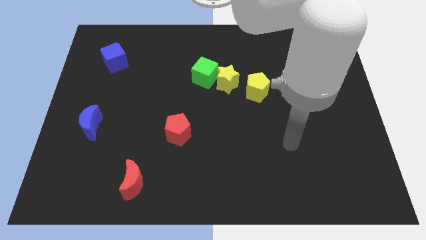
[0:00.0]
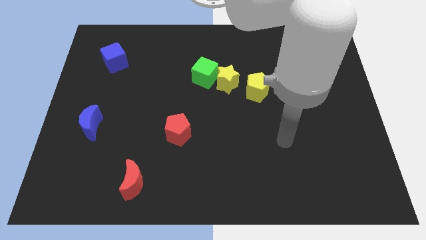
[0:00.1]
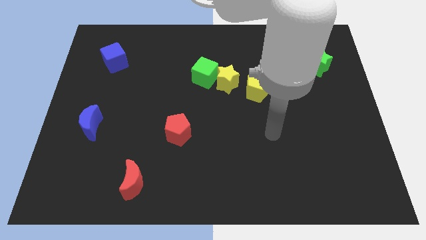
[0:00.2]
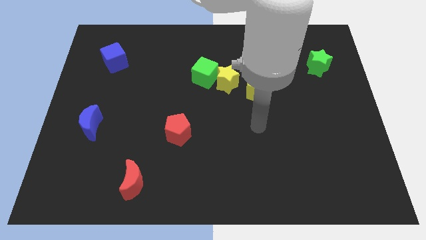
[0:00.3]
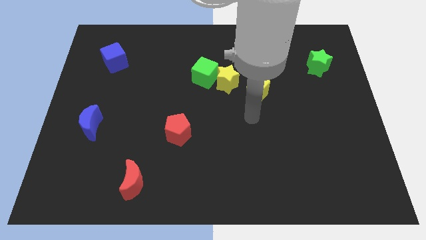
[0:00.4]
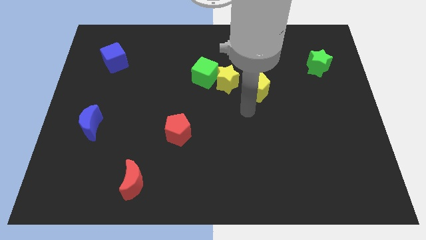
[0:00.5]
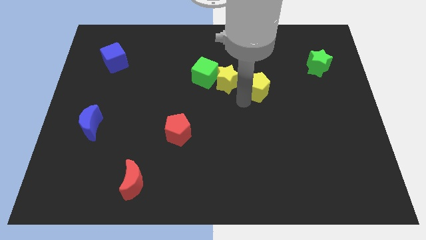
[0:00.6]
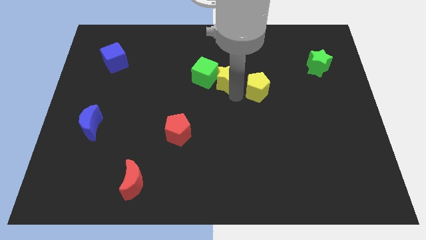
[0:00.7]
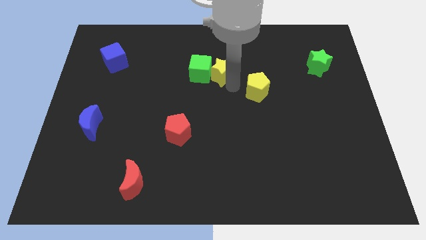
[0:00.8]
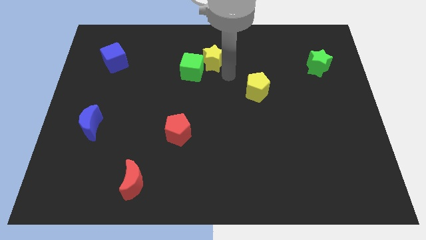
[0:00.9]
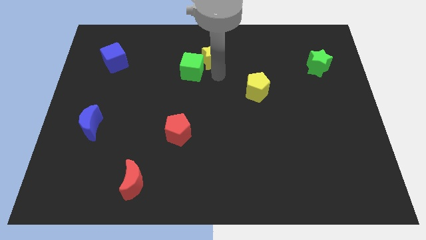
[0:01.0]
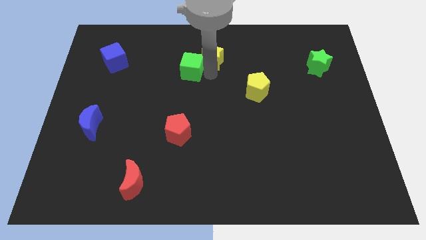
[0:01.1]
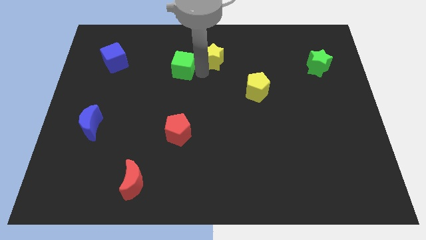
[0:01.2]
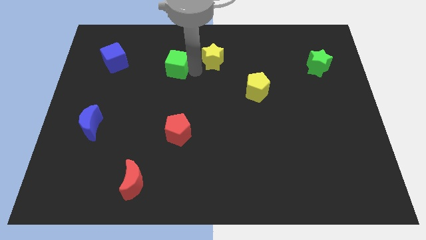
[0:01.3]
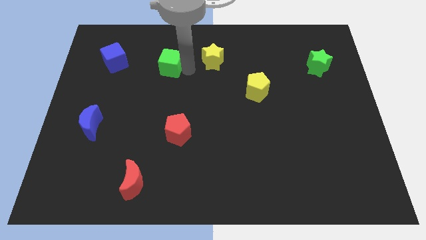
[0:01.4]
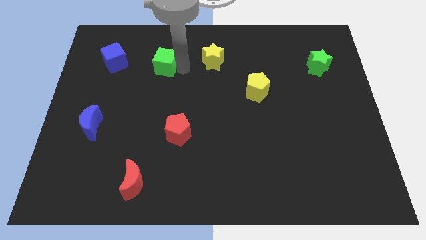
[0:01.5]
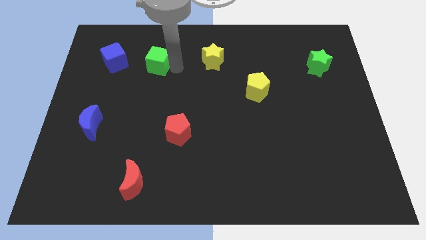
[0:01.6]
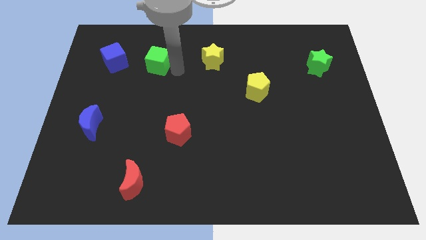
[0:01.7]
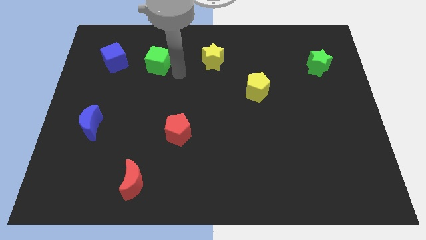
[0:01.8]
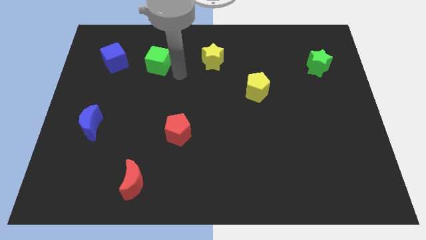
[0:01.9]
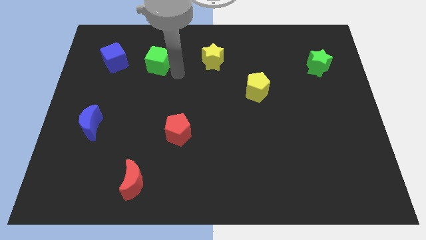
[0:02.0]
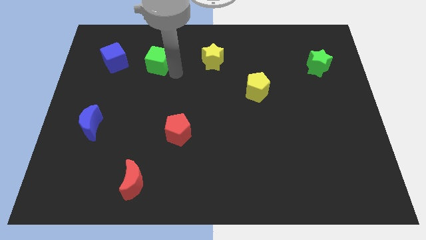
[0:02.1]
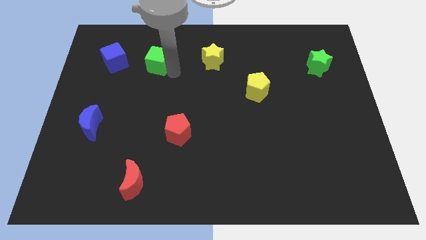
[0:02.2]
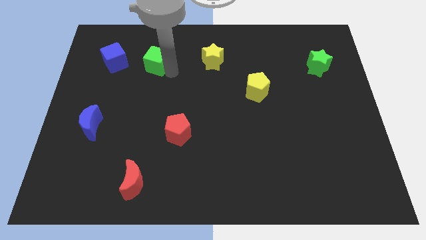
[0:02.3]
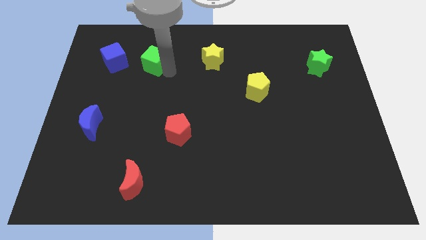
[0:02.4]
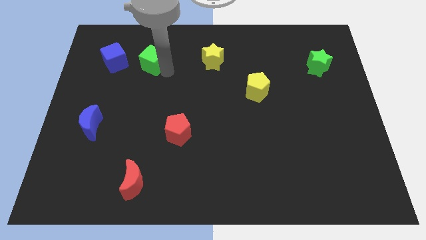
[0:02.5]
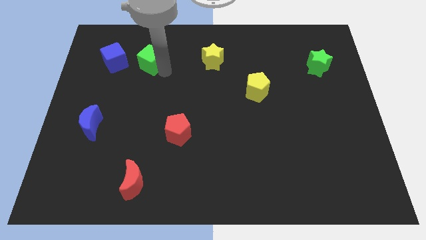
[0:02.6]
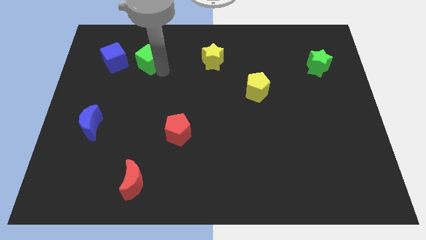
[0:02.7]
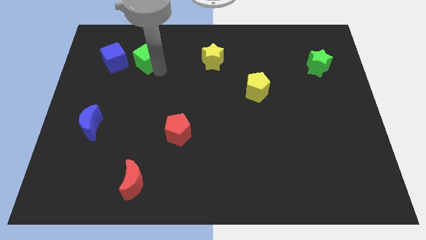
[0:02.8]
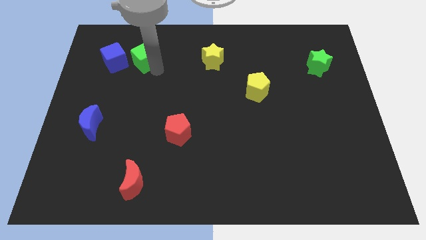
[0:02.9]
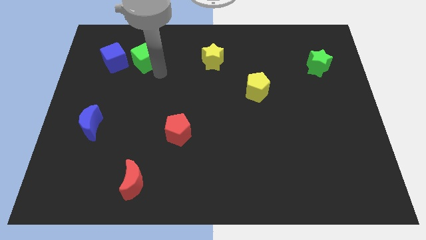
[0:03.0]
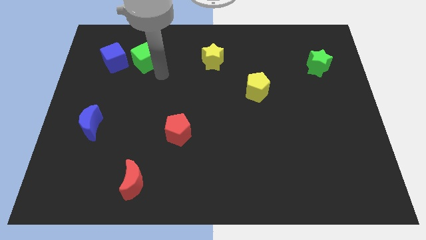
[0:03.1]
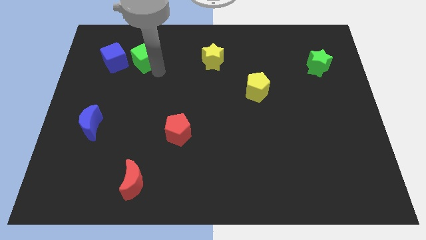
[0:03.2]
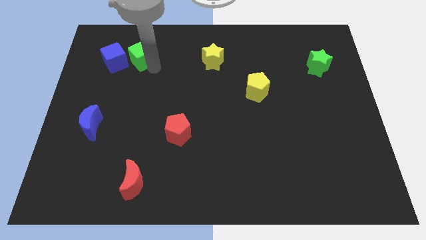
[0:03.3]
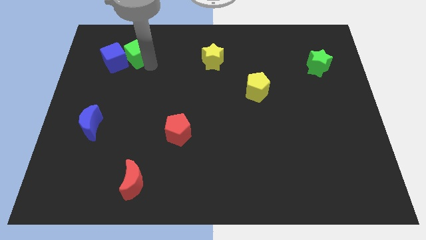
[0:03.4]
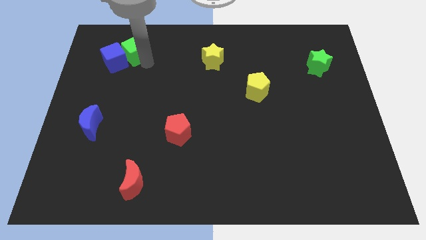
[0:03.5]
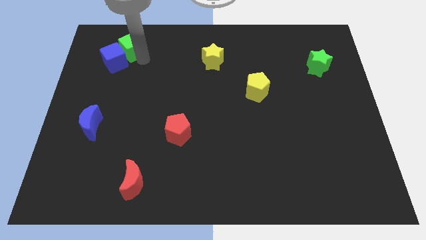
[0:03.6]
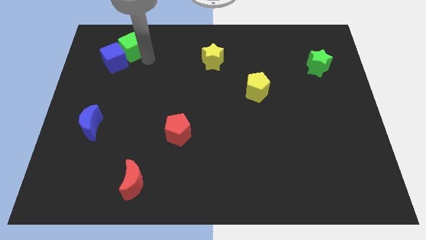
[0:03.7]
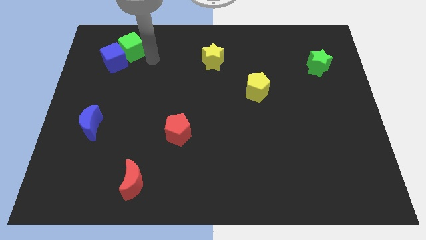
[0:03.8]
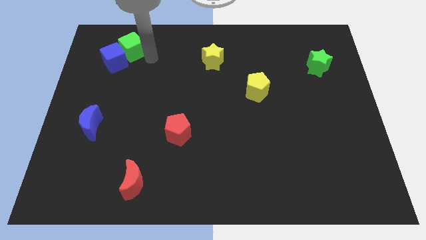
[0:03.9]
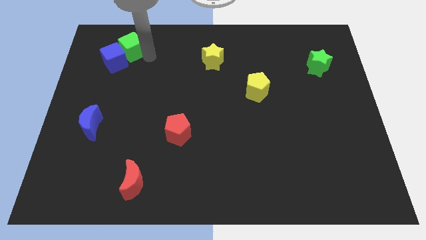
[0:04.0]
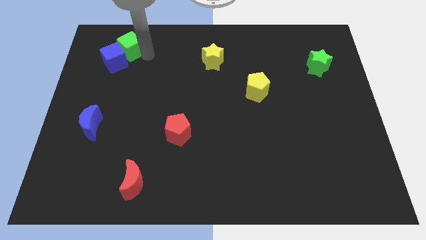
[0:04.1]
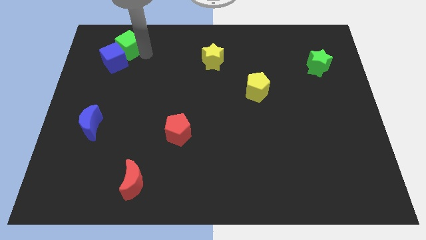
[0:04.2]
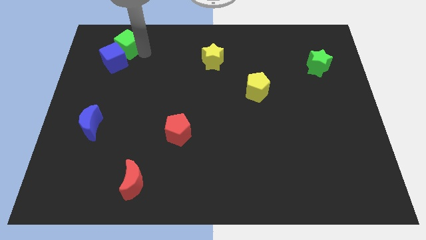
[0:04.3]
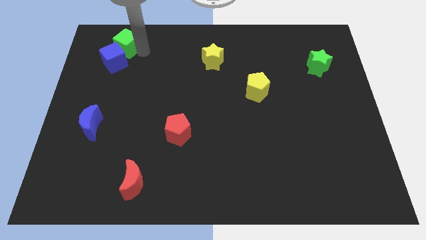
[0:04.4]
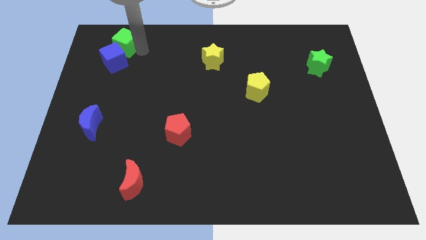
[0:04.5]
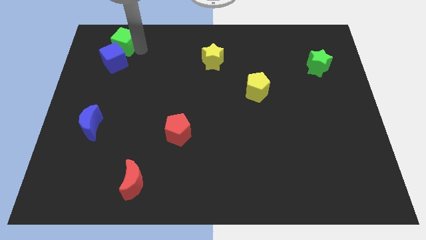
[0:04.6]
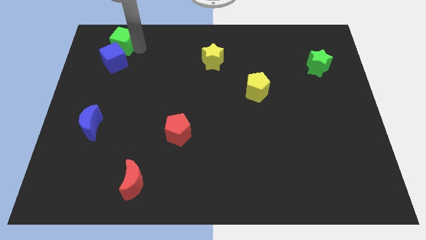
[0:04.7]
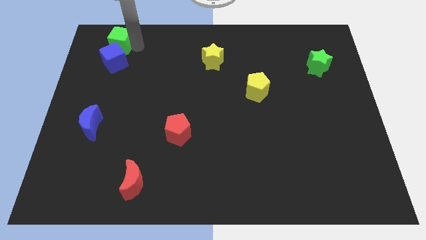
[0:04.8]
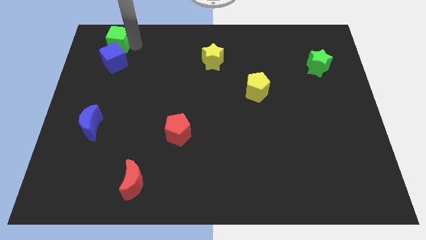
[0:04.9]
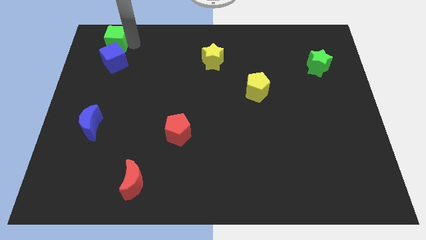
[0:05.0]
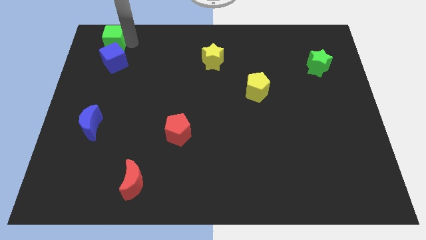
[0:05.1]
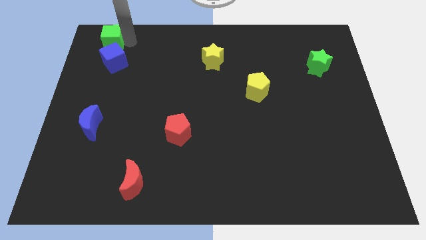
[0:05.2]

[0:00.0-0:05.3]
put the green cube to the upper left corner

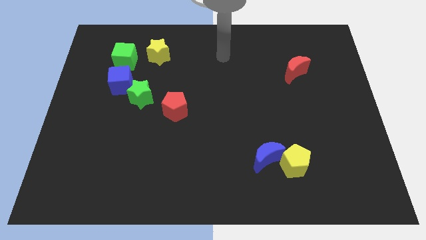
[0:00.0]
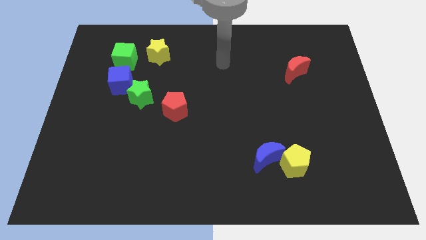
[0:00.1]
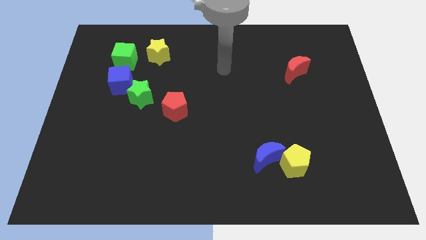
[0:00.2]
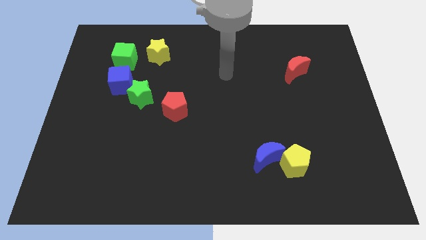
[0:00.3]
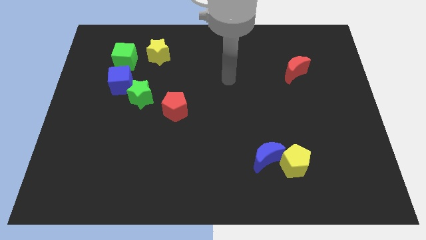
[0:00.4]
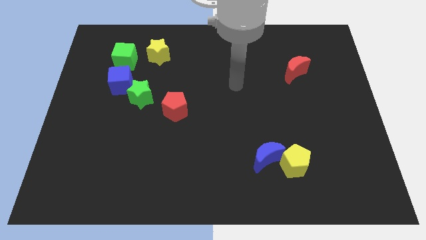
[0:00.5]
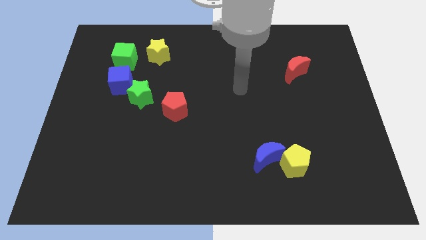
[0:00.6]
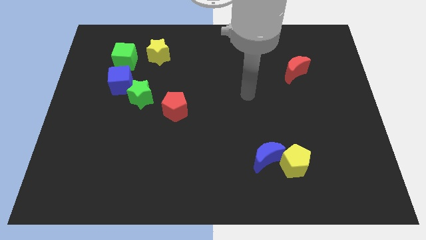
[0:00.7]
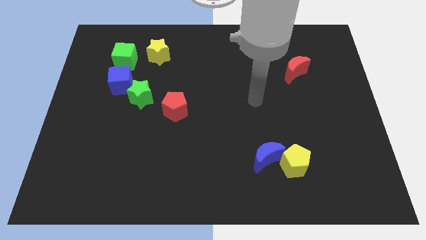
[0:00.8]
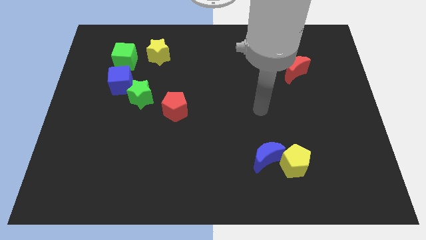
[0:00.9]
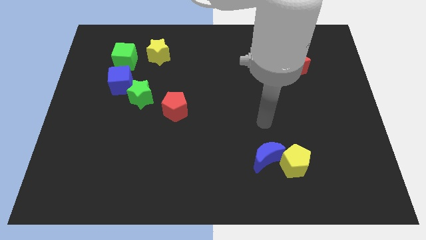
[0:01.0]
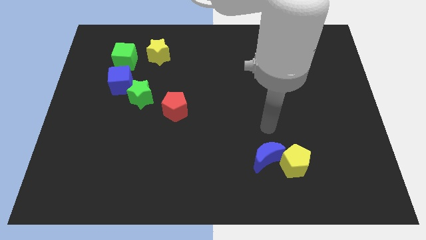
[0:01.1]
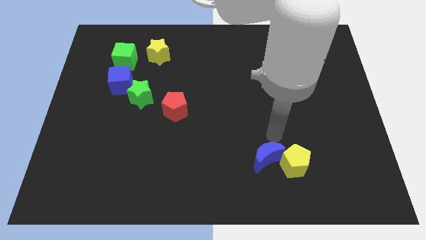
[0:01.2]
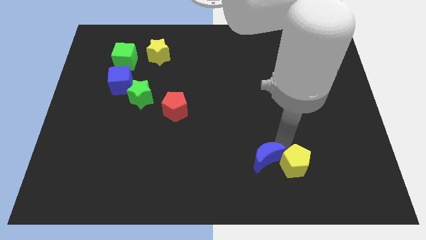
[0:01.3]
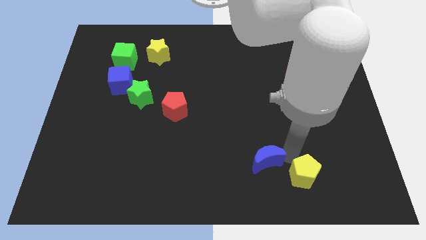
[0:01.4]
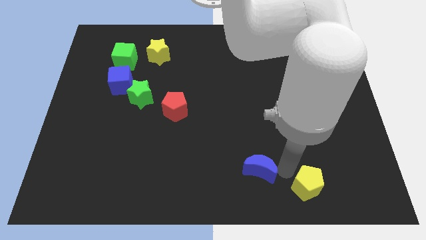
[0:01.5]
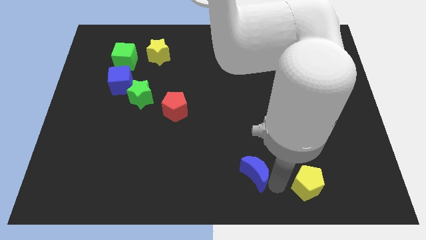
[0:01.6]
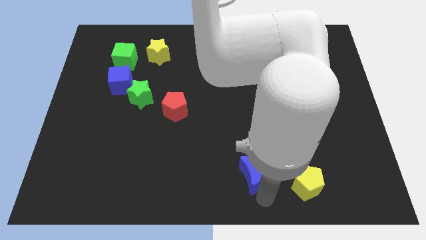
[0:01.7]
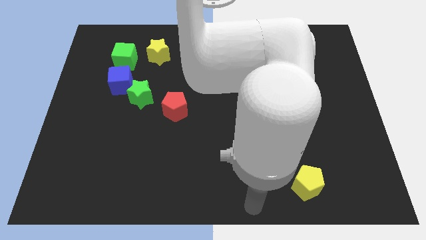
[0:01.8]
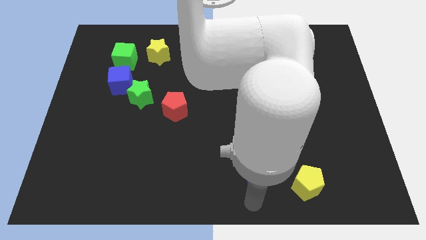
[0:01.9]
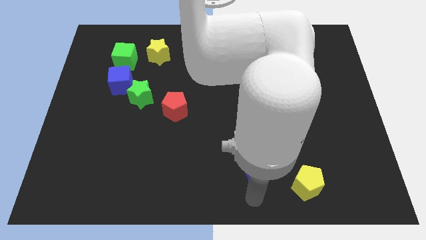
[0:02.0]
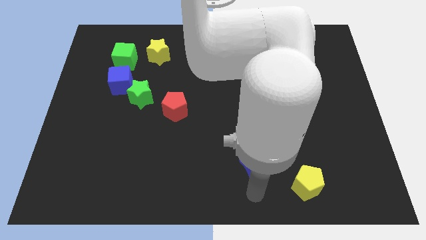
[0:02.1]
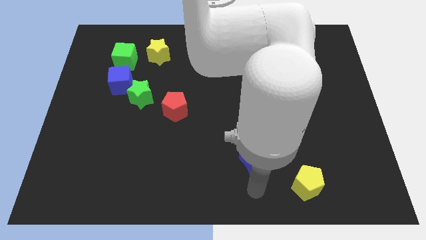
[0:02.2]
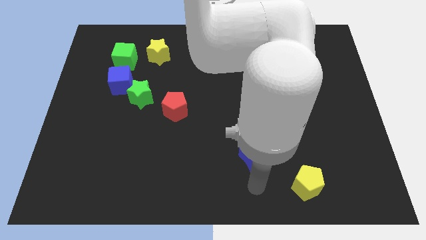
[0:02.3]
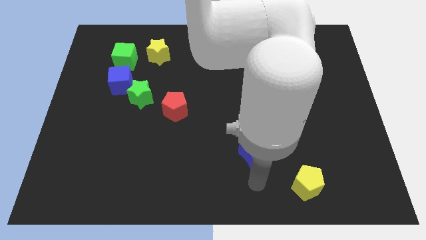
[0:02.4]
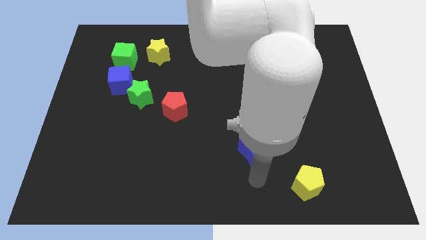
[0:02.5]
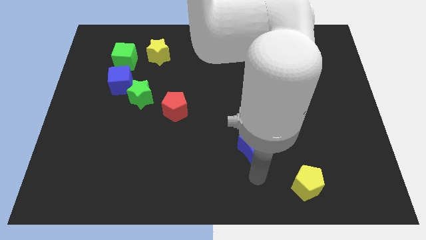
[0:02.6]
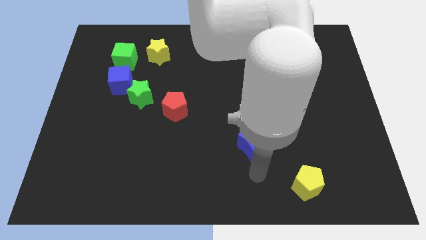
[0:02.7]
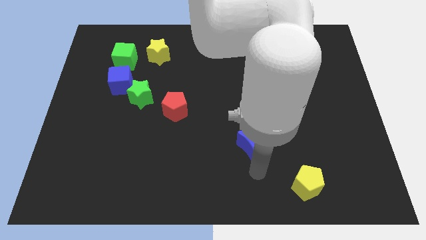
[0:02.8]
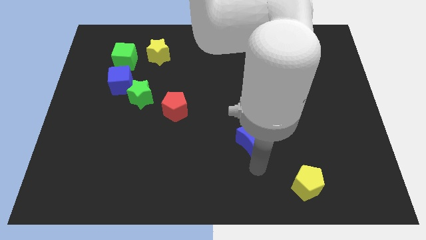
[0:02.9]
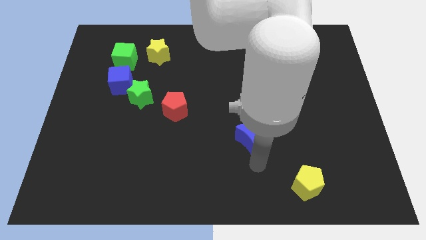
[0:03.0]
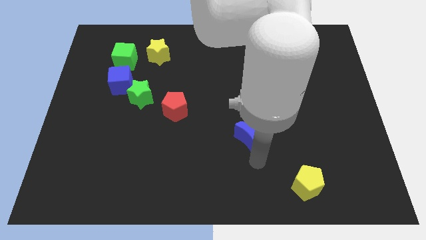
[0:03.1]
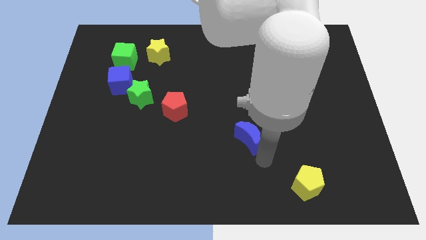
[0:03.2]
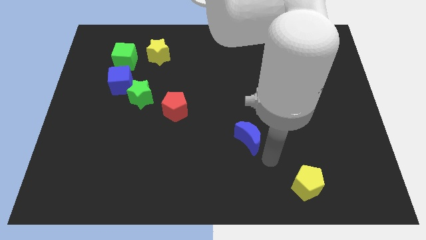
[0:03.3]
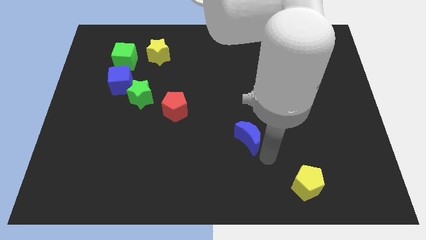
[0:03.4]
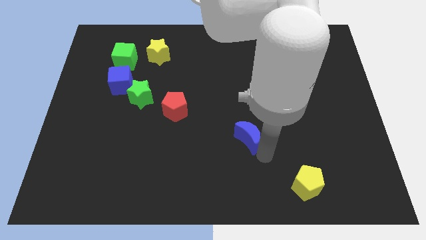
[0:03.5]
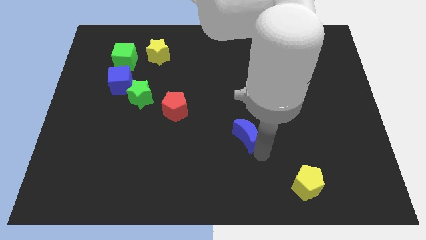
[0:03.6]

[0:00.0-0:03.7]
slide the blue moon to the center of the board
